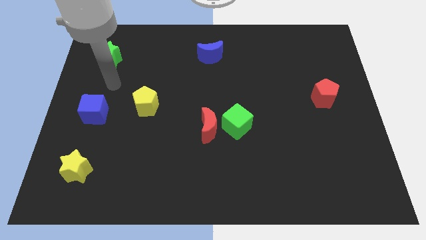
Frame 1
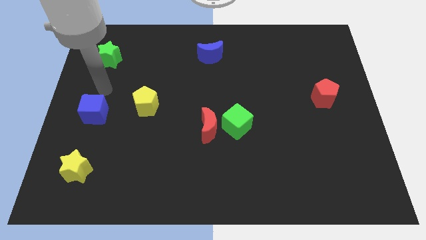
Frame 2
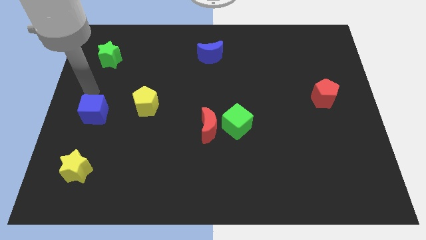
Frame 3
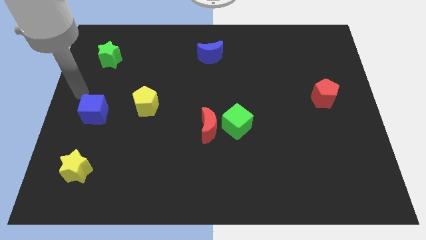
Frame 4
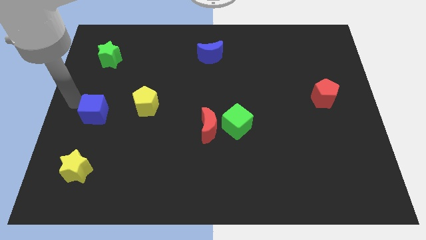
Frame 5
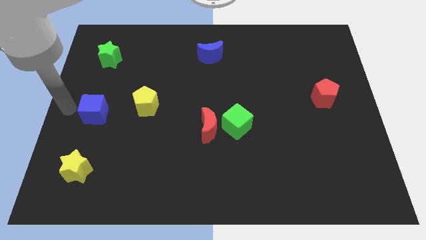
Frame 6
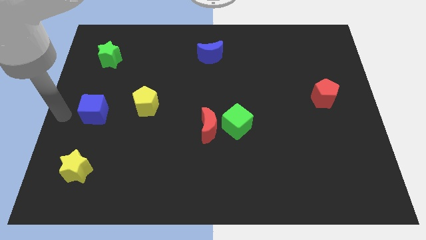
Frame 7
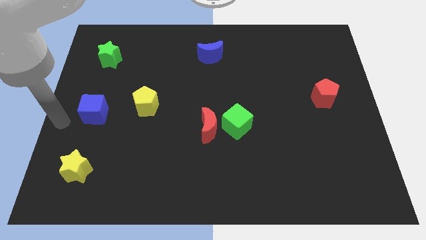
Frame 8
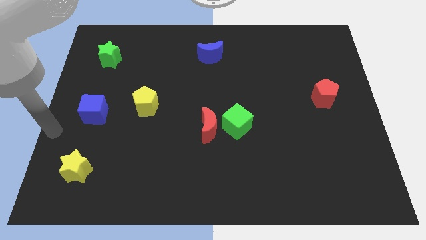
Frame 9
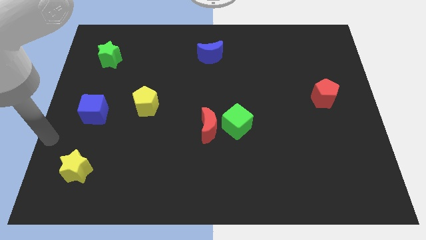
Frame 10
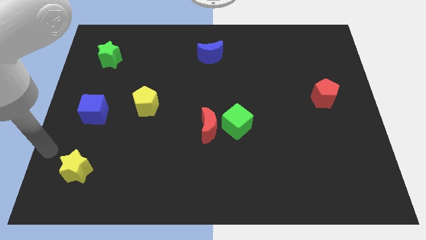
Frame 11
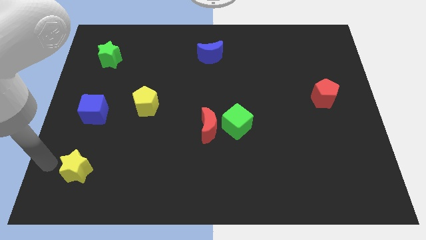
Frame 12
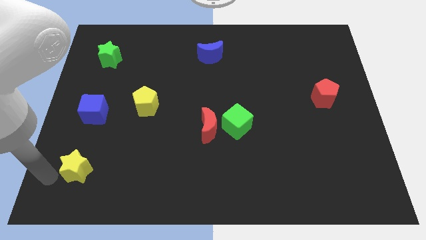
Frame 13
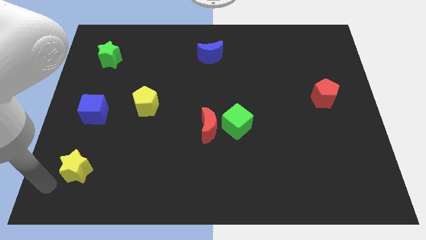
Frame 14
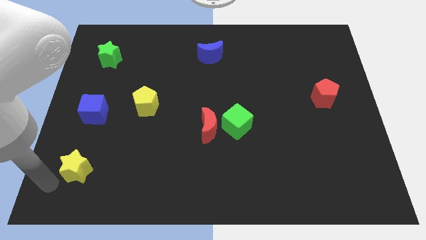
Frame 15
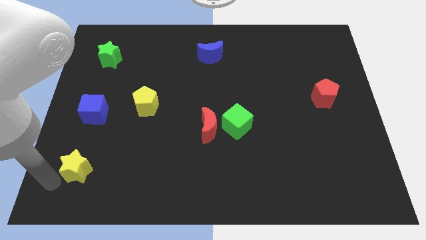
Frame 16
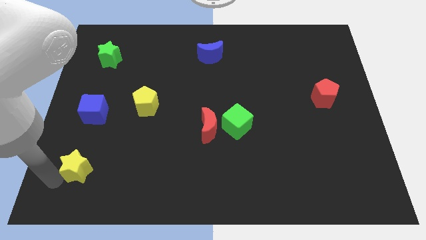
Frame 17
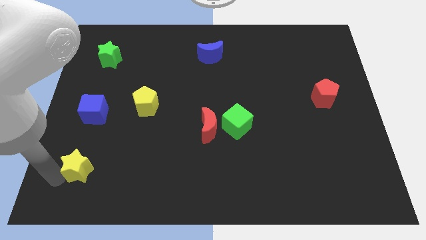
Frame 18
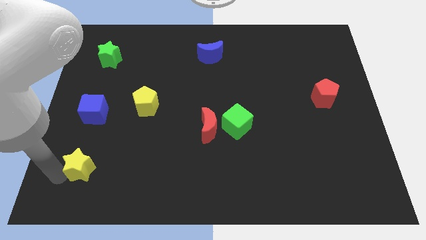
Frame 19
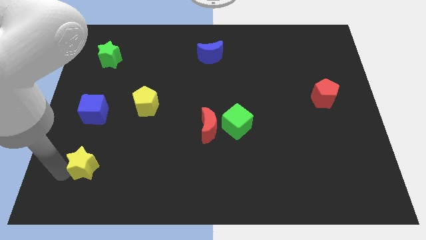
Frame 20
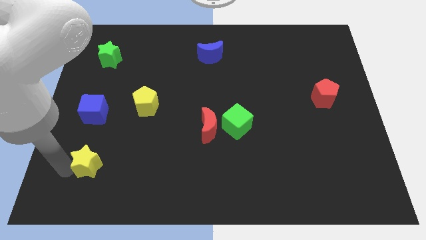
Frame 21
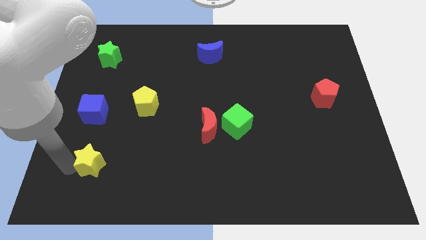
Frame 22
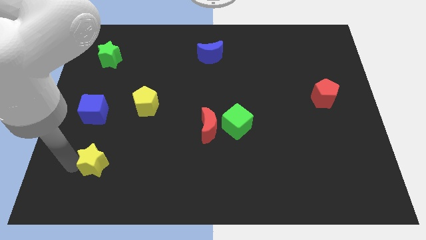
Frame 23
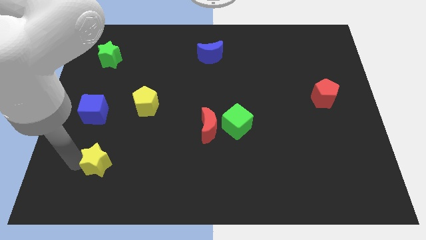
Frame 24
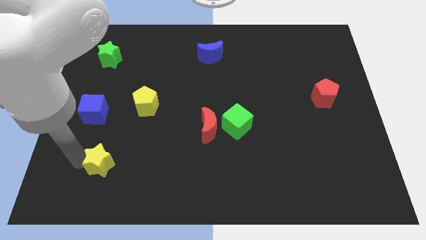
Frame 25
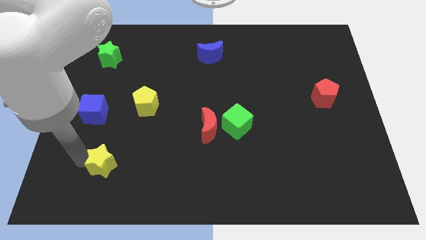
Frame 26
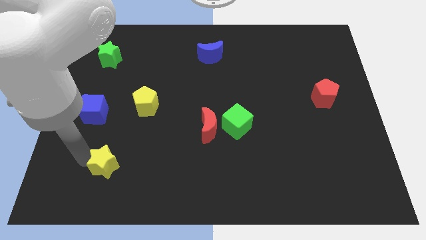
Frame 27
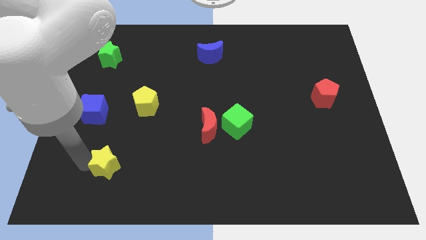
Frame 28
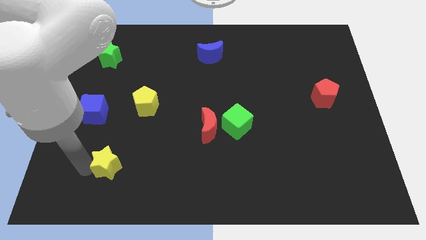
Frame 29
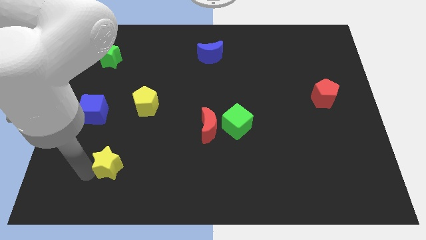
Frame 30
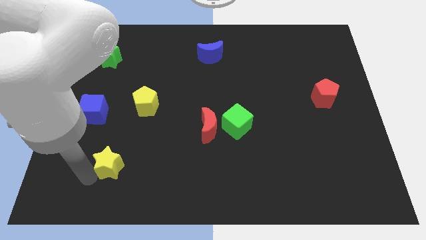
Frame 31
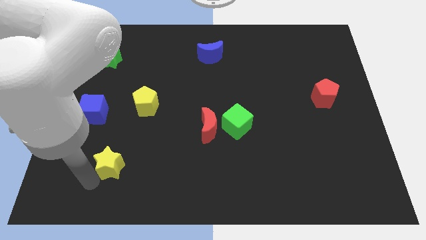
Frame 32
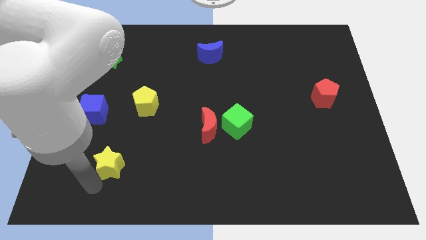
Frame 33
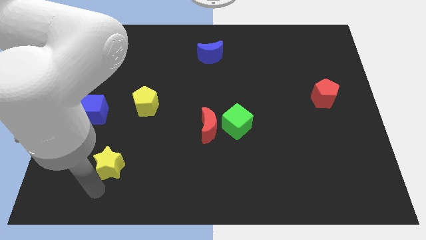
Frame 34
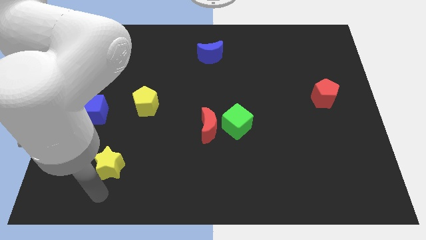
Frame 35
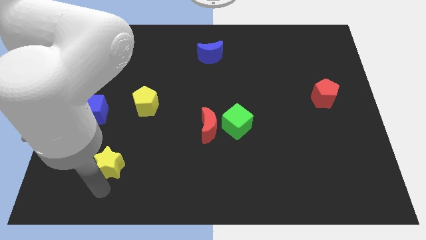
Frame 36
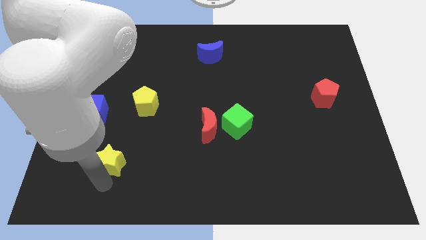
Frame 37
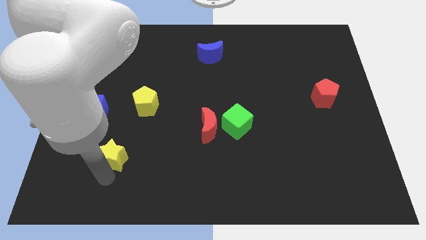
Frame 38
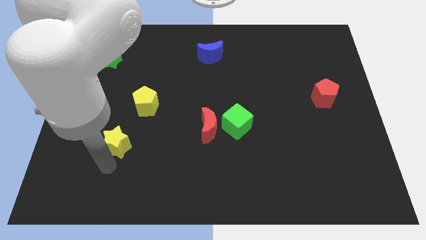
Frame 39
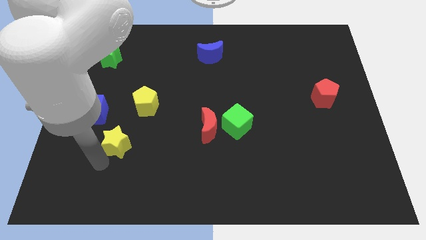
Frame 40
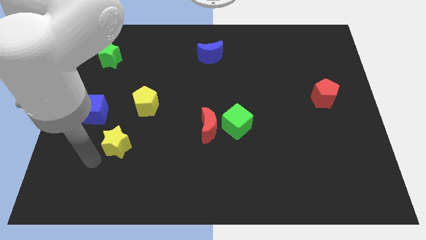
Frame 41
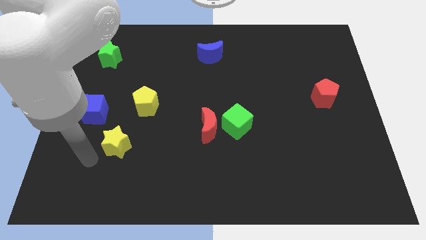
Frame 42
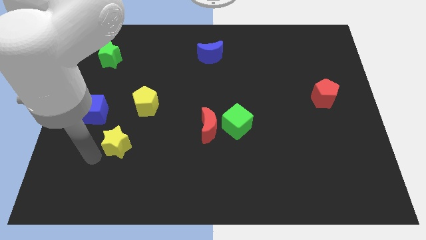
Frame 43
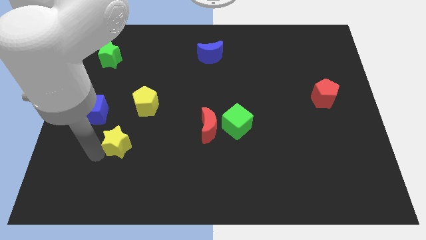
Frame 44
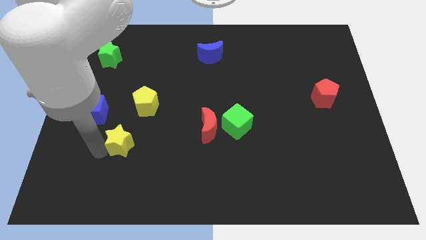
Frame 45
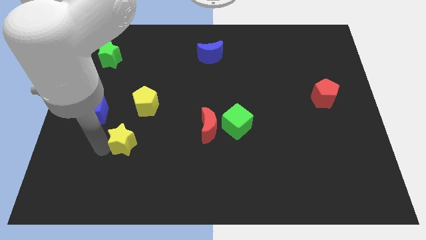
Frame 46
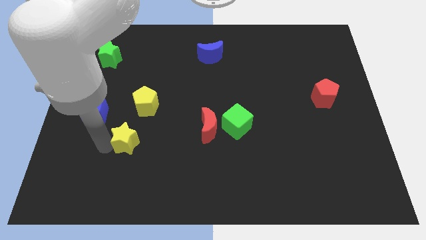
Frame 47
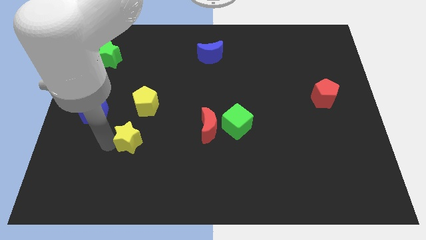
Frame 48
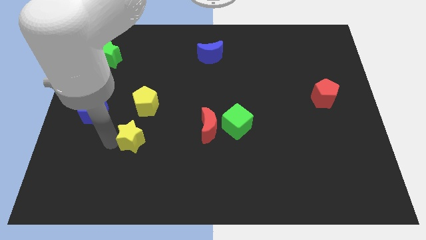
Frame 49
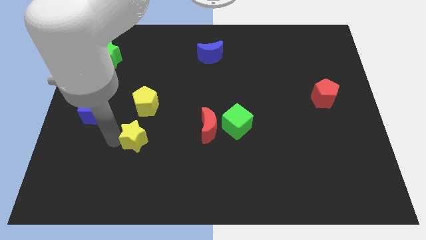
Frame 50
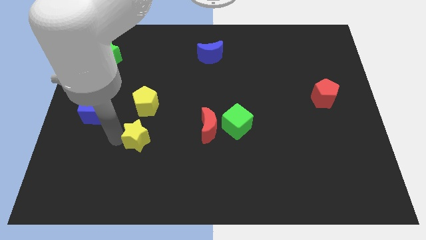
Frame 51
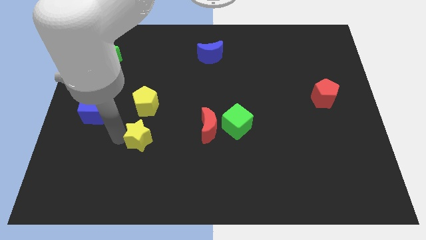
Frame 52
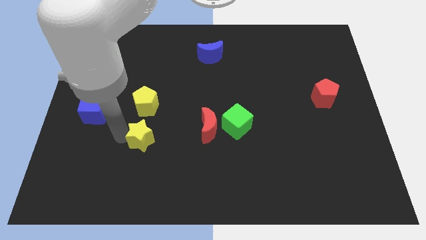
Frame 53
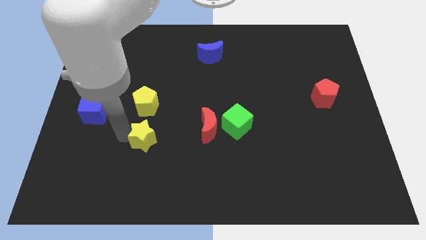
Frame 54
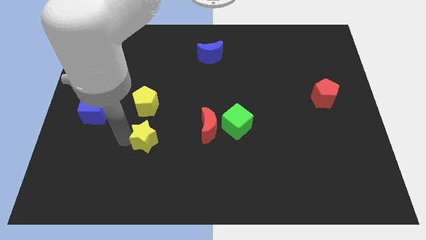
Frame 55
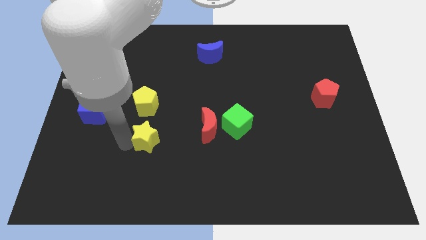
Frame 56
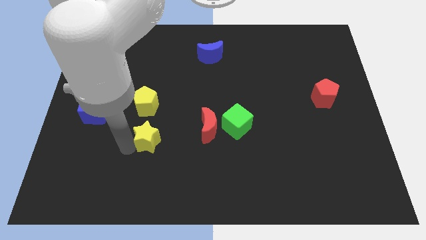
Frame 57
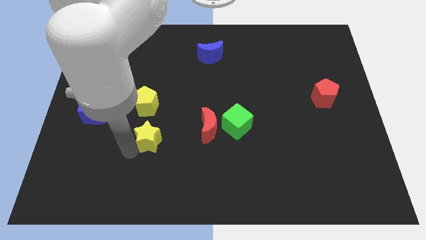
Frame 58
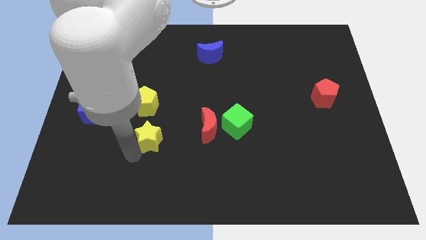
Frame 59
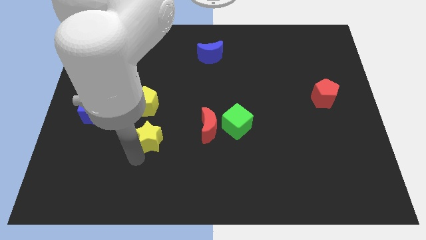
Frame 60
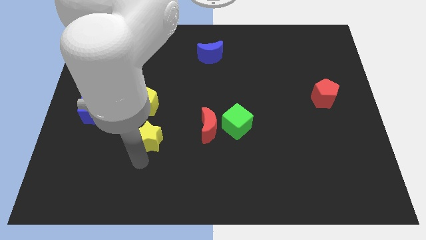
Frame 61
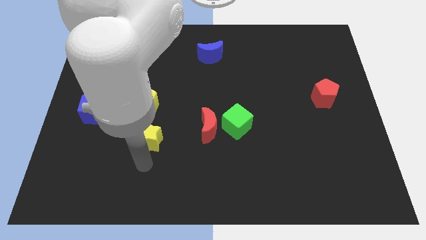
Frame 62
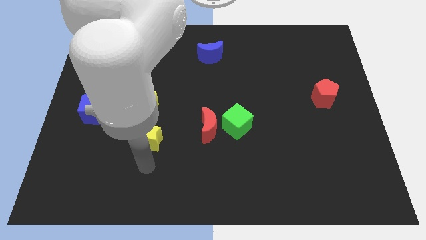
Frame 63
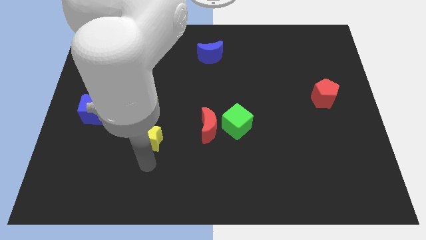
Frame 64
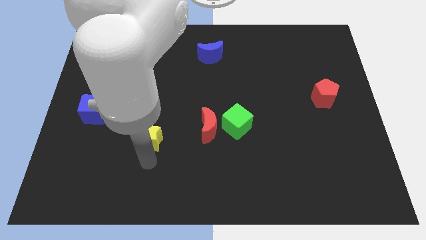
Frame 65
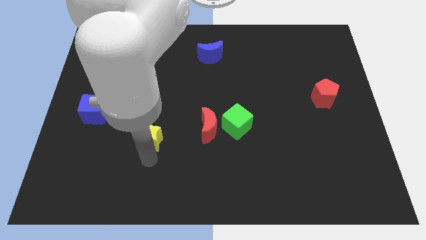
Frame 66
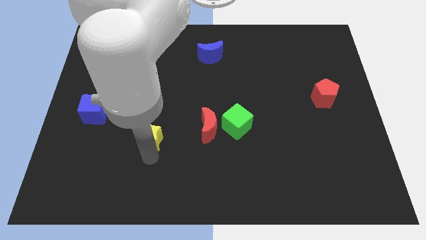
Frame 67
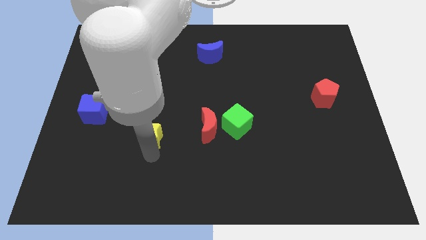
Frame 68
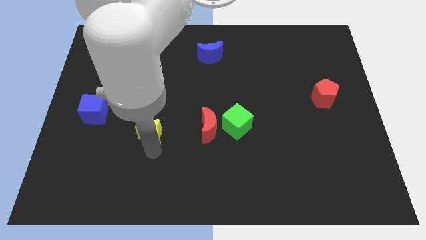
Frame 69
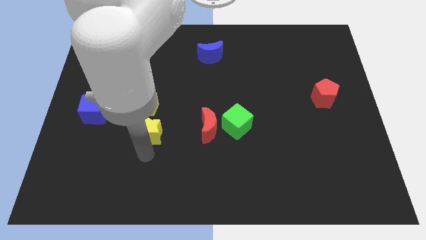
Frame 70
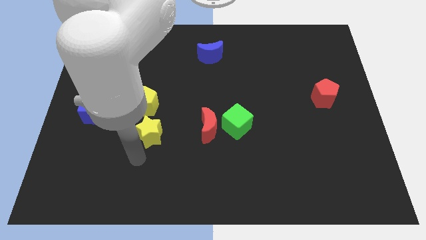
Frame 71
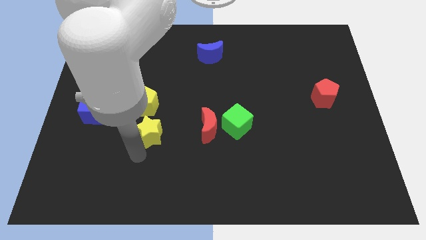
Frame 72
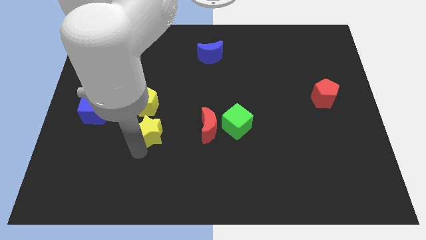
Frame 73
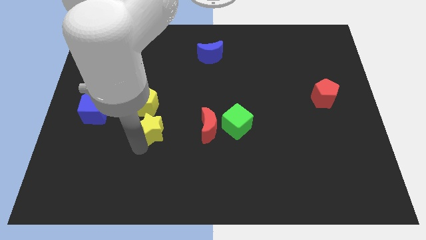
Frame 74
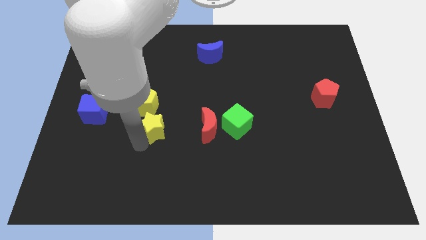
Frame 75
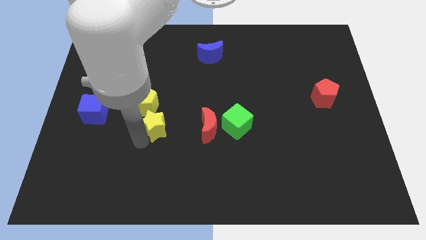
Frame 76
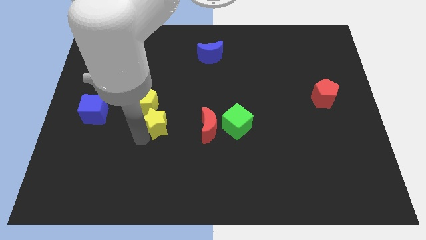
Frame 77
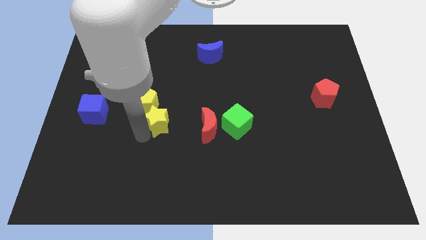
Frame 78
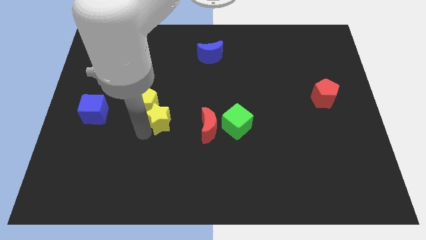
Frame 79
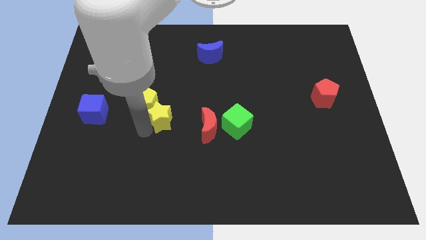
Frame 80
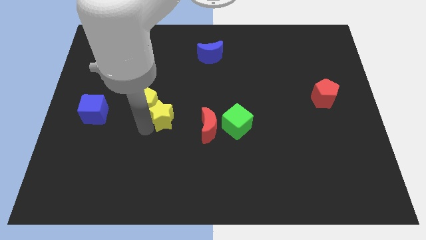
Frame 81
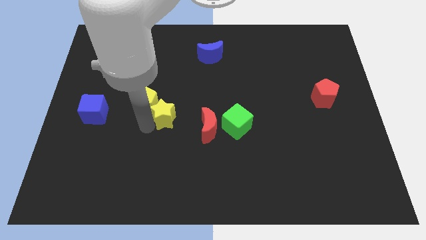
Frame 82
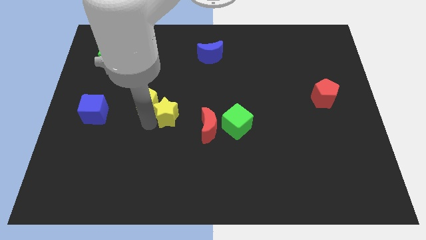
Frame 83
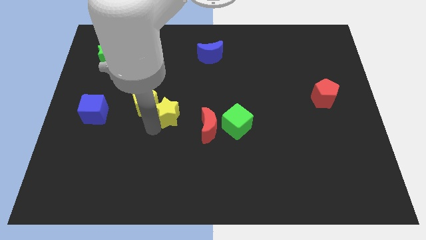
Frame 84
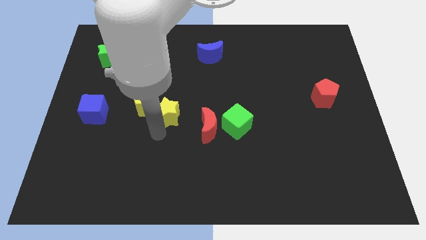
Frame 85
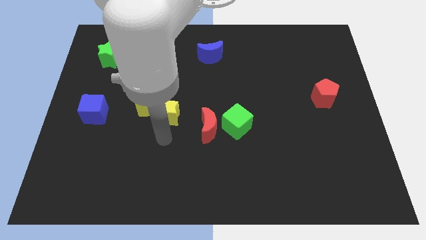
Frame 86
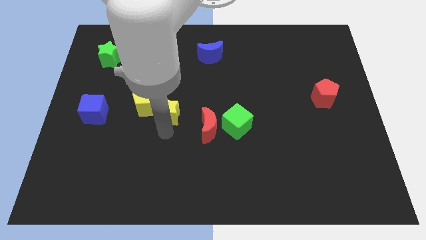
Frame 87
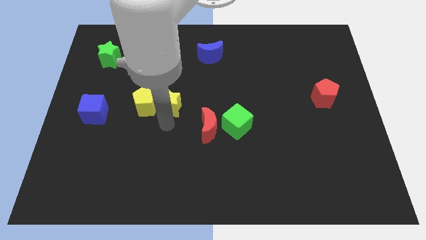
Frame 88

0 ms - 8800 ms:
slide the yellow star diagonally up and to the right of the yellow pentagon
